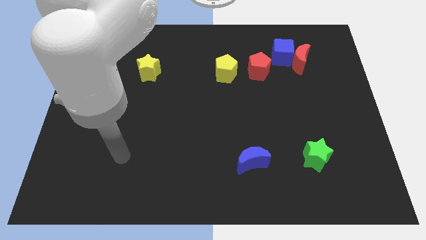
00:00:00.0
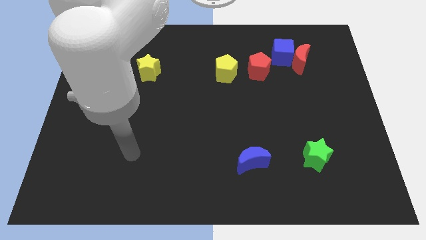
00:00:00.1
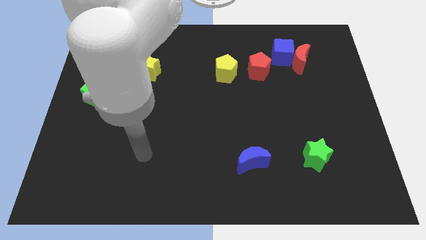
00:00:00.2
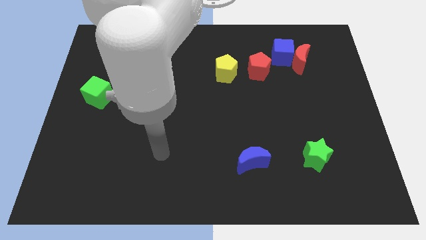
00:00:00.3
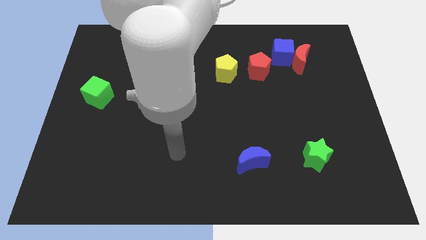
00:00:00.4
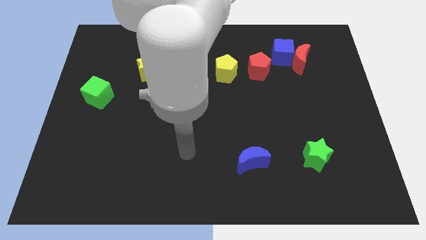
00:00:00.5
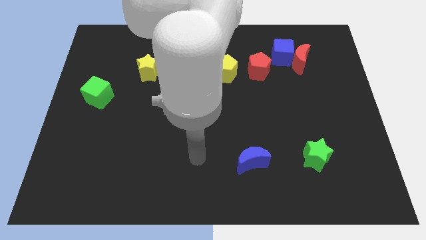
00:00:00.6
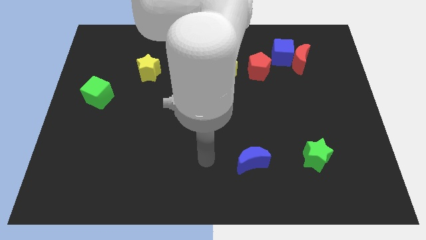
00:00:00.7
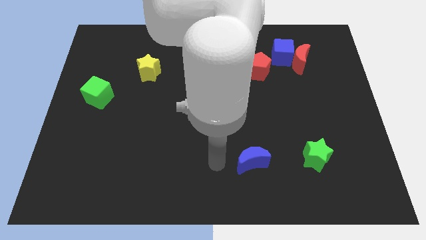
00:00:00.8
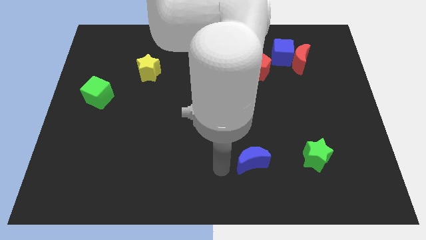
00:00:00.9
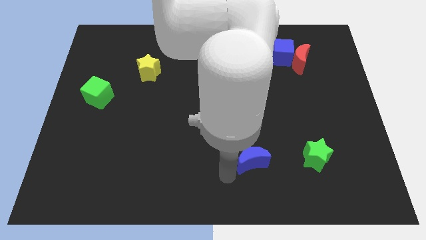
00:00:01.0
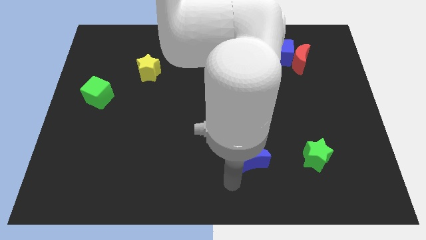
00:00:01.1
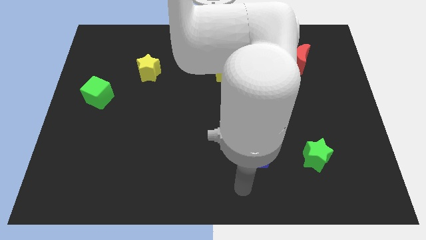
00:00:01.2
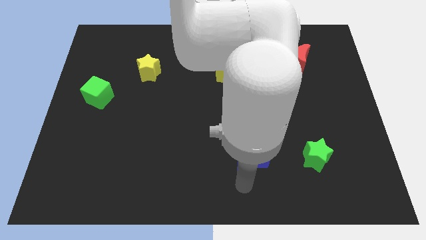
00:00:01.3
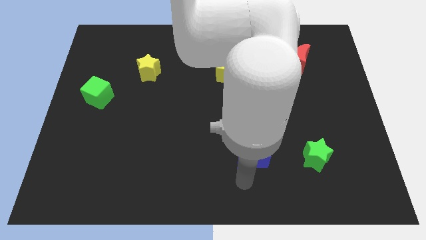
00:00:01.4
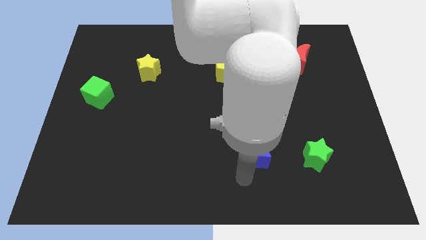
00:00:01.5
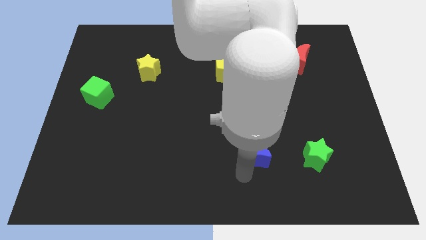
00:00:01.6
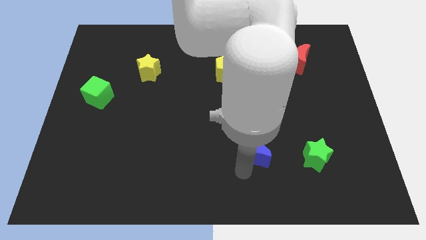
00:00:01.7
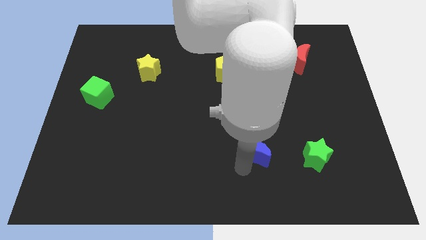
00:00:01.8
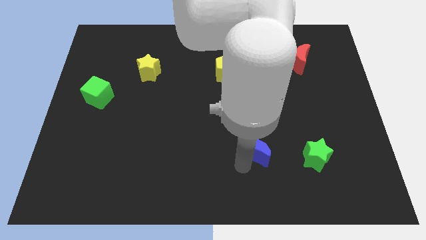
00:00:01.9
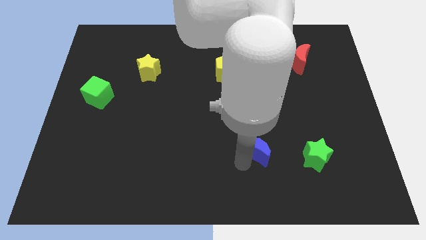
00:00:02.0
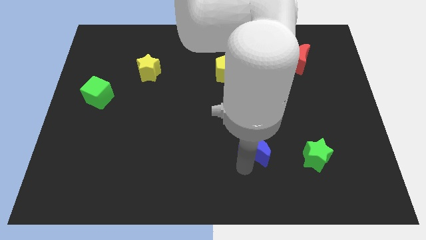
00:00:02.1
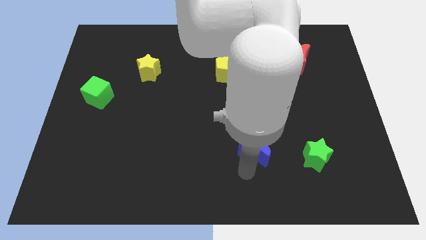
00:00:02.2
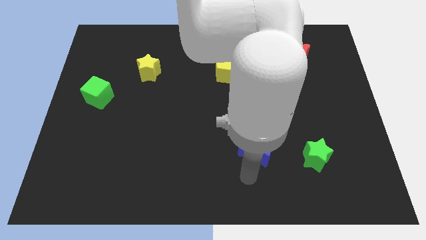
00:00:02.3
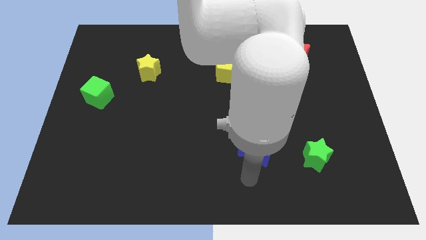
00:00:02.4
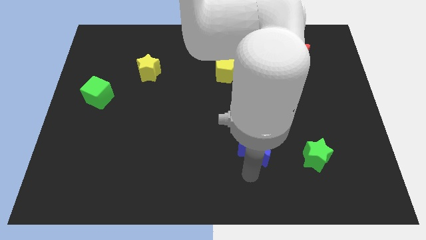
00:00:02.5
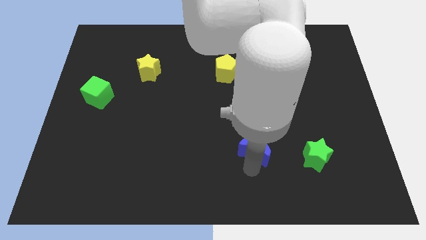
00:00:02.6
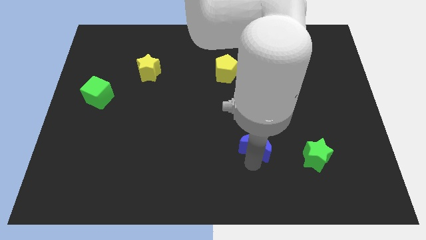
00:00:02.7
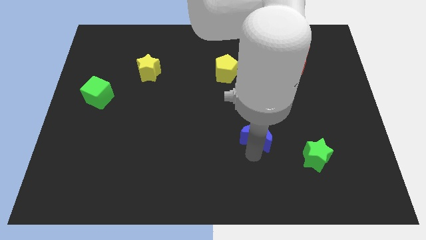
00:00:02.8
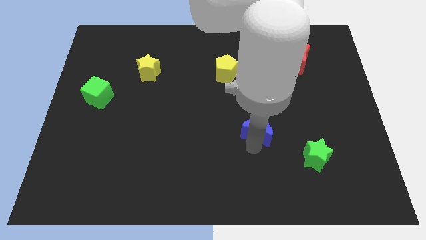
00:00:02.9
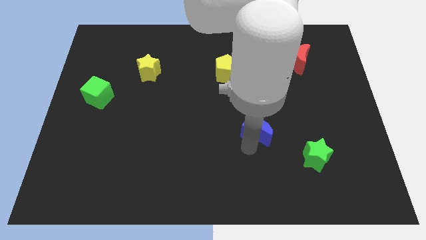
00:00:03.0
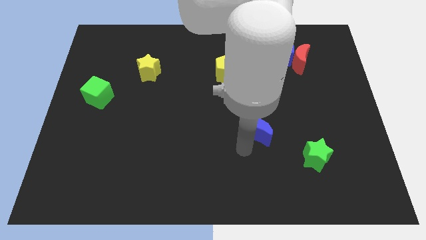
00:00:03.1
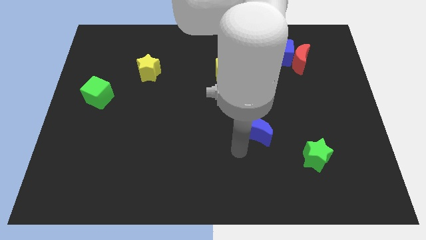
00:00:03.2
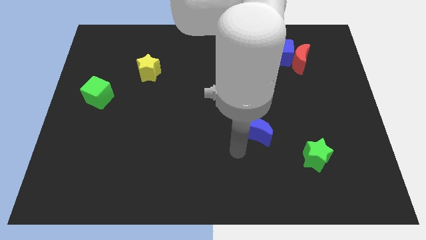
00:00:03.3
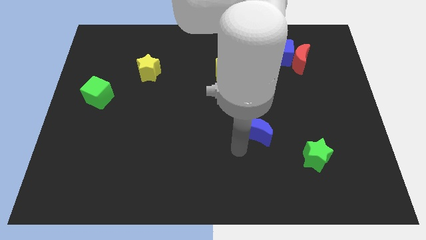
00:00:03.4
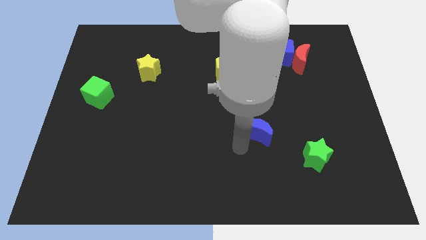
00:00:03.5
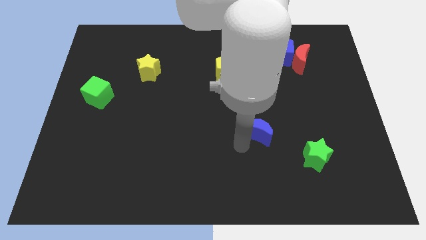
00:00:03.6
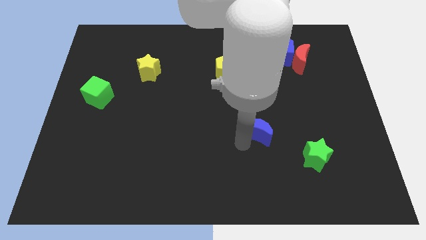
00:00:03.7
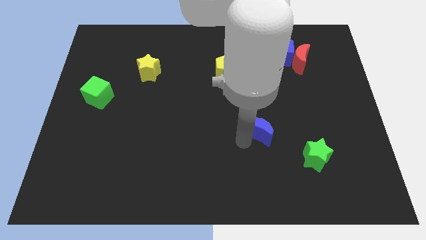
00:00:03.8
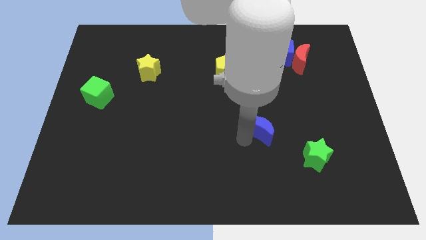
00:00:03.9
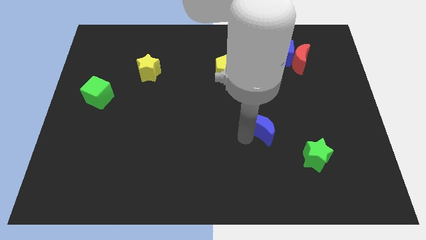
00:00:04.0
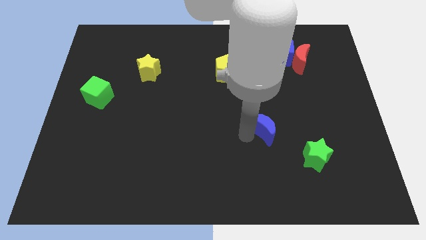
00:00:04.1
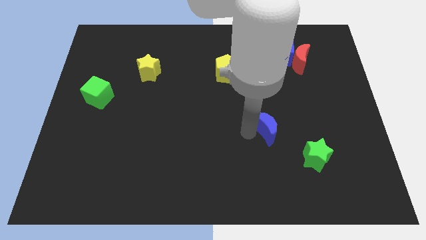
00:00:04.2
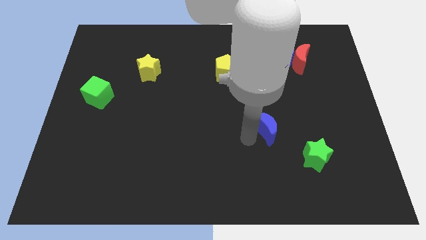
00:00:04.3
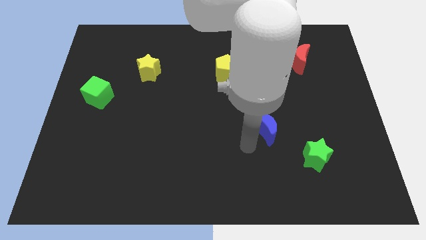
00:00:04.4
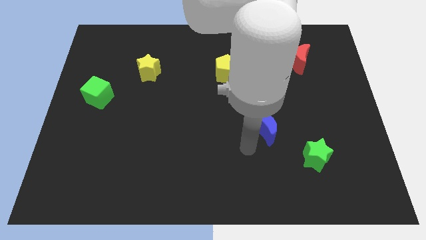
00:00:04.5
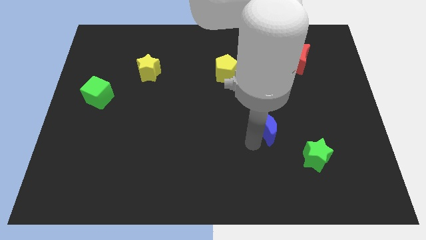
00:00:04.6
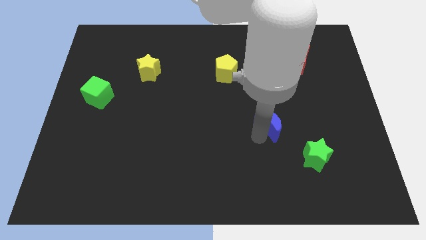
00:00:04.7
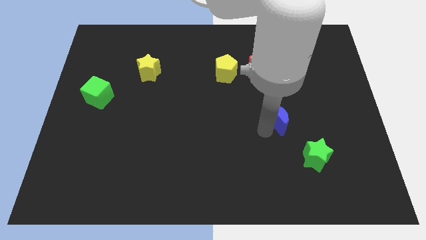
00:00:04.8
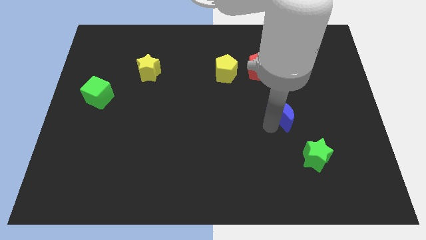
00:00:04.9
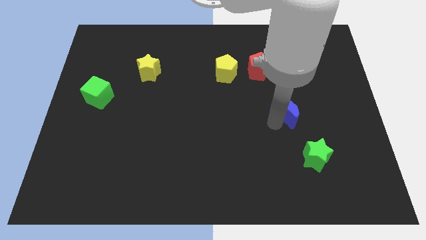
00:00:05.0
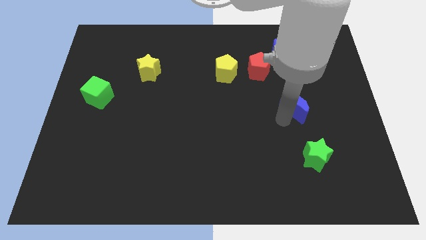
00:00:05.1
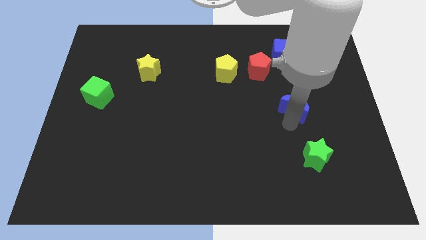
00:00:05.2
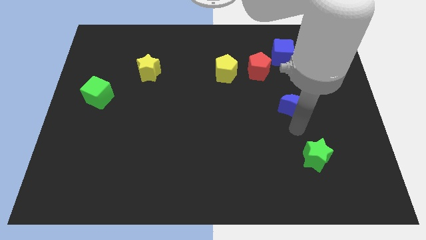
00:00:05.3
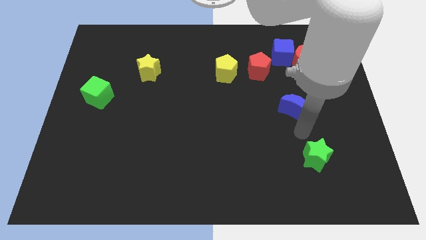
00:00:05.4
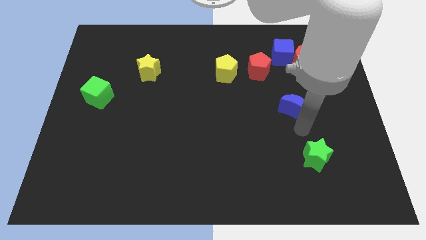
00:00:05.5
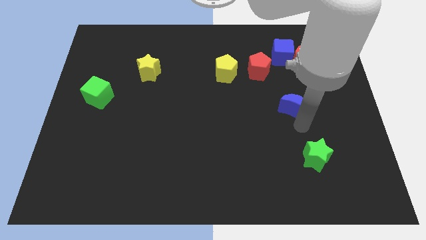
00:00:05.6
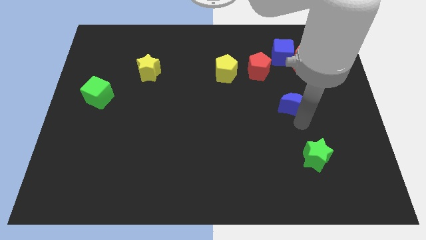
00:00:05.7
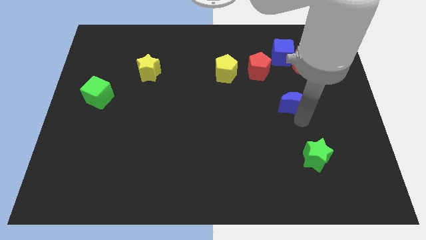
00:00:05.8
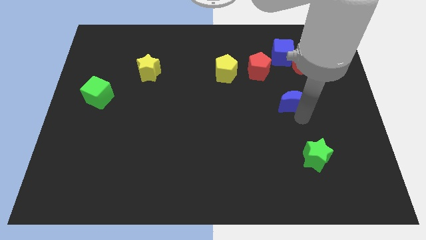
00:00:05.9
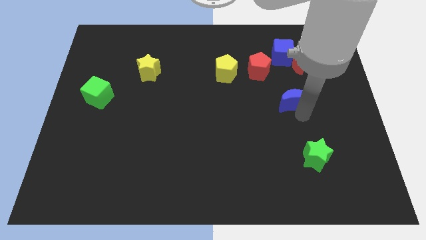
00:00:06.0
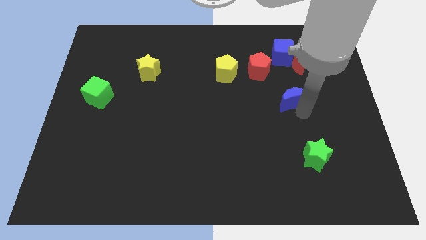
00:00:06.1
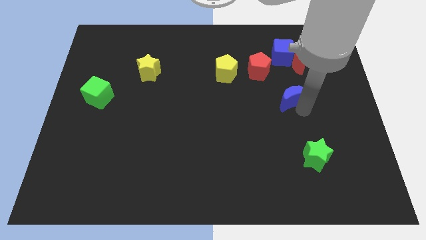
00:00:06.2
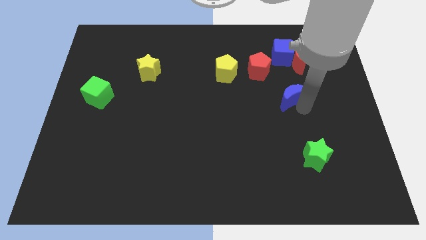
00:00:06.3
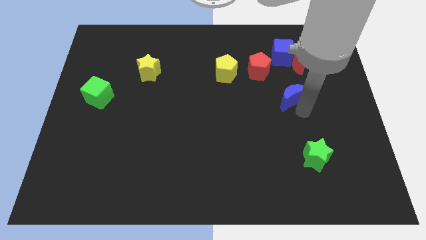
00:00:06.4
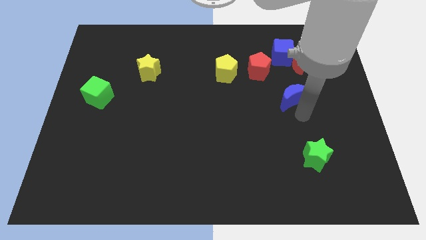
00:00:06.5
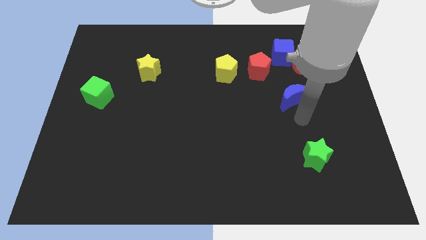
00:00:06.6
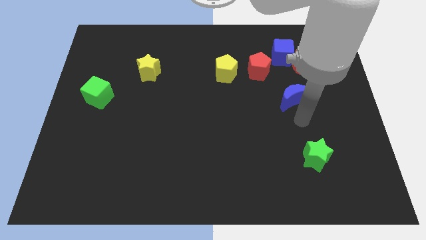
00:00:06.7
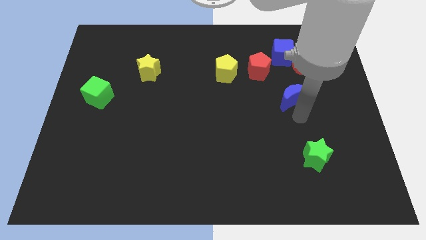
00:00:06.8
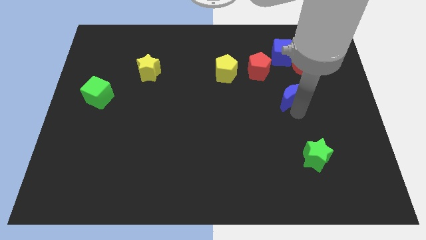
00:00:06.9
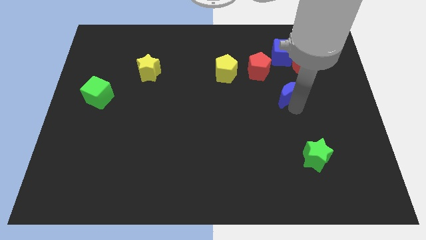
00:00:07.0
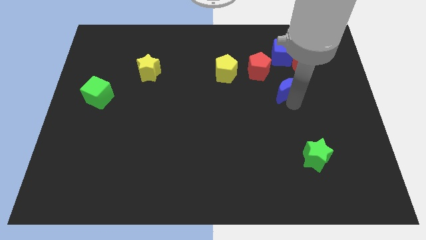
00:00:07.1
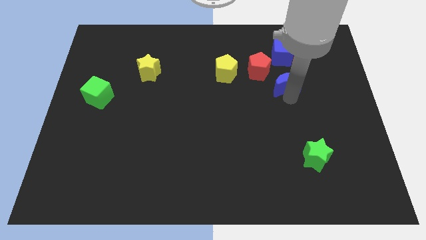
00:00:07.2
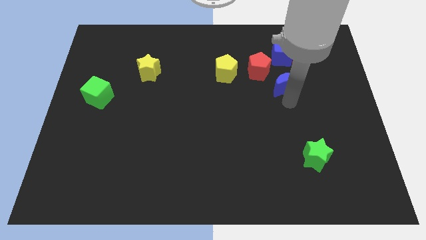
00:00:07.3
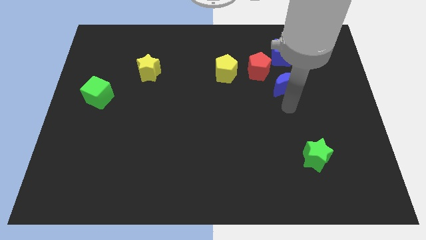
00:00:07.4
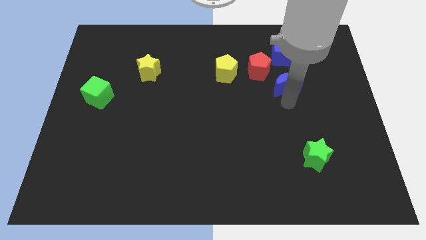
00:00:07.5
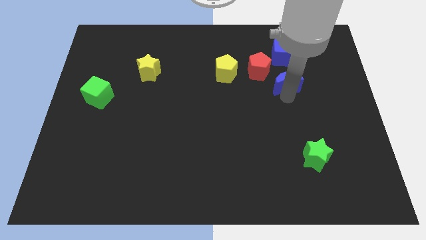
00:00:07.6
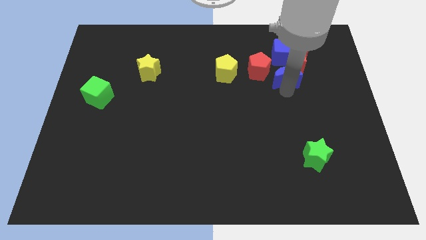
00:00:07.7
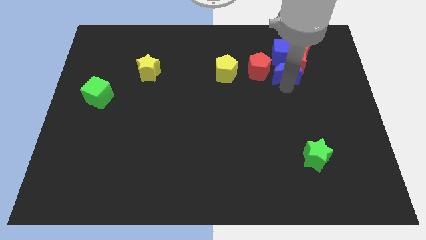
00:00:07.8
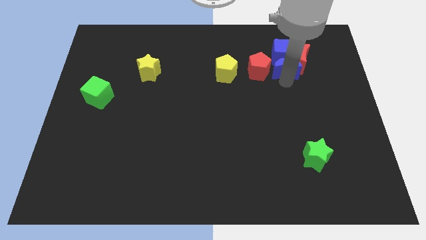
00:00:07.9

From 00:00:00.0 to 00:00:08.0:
put the blue moon towards the blue cube
